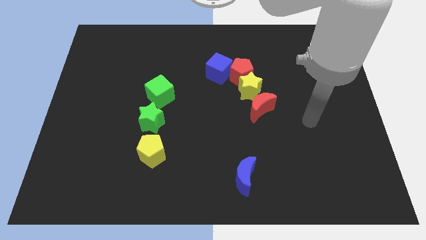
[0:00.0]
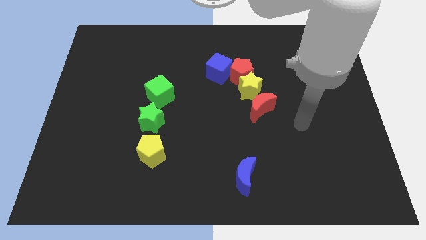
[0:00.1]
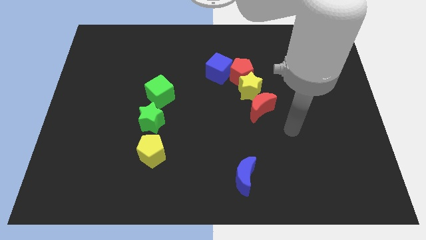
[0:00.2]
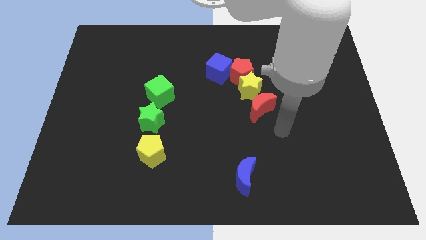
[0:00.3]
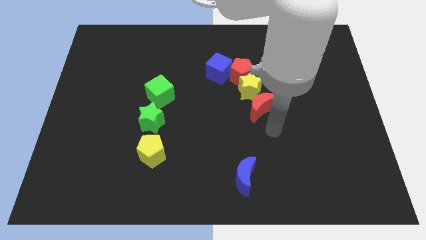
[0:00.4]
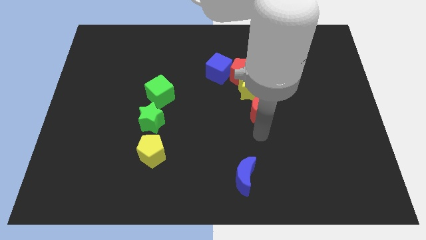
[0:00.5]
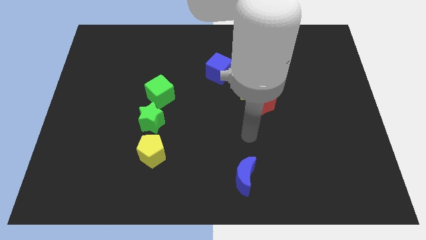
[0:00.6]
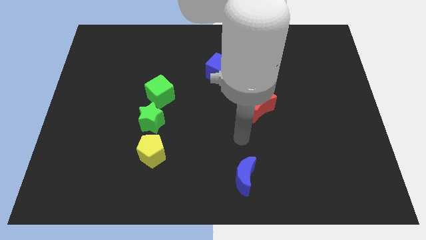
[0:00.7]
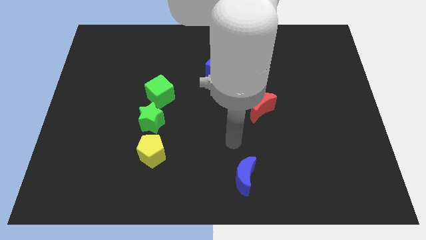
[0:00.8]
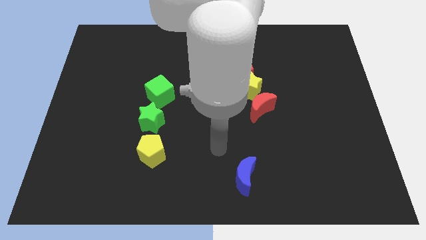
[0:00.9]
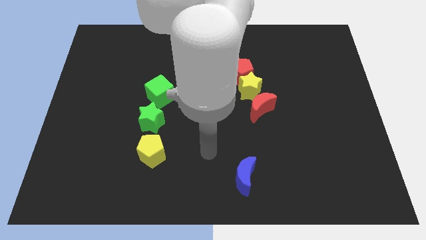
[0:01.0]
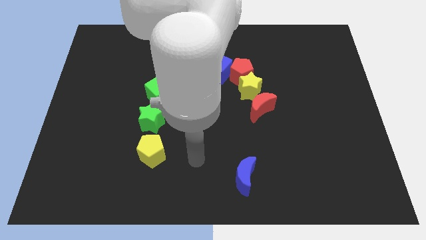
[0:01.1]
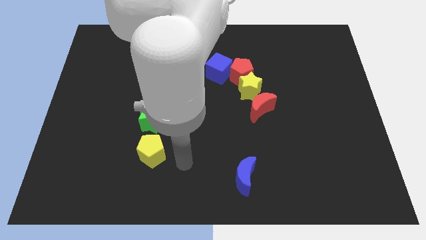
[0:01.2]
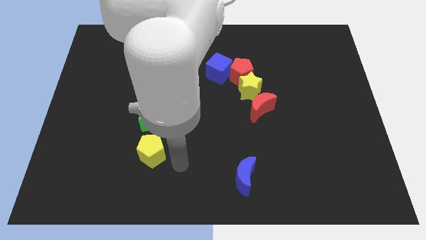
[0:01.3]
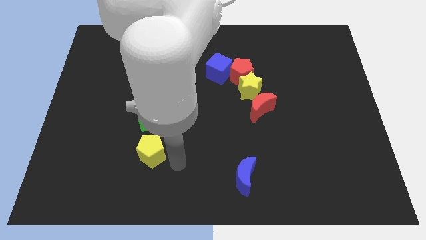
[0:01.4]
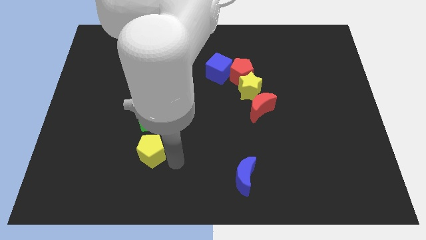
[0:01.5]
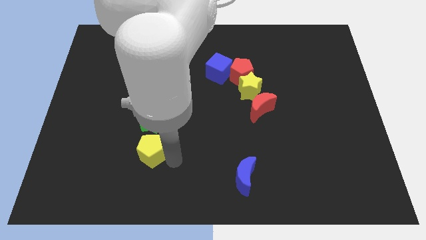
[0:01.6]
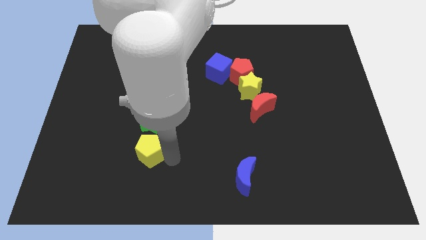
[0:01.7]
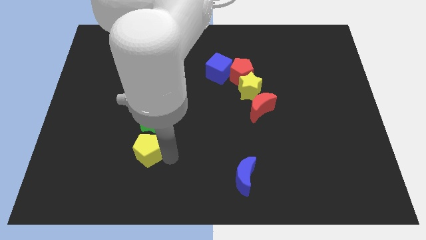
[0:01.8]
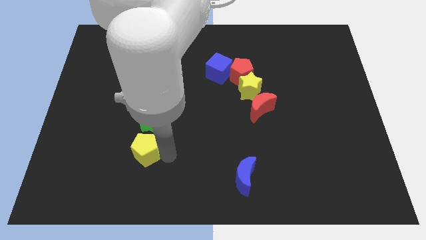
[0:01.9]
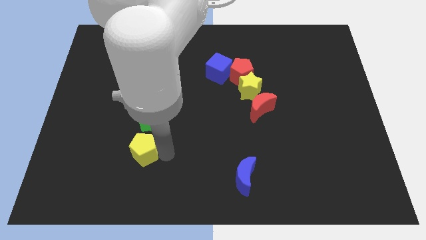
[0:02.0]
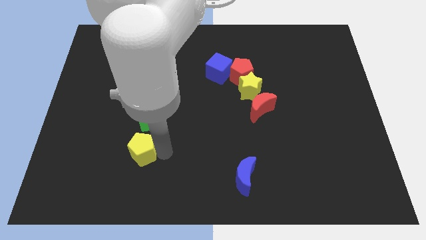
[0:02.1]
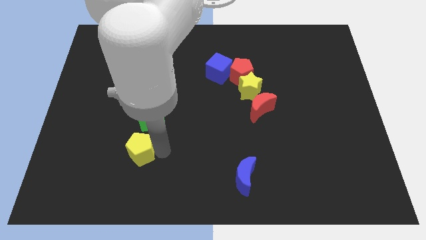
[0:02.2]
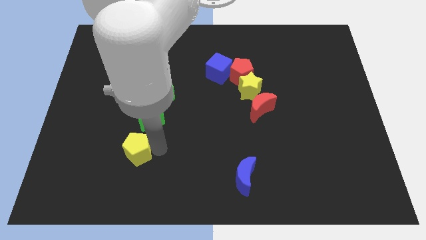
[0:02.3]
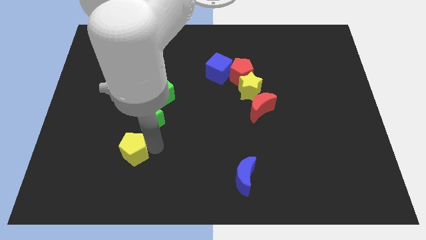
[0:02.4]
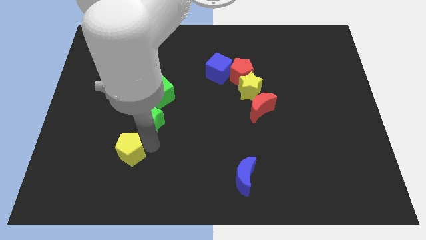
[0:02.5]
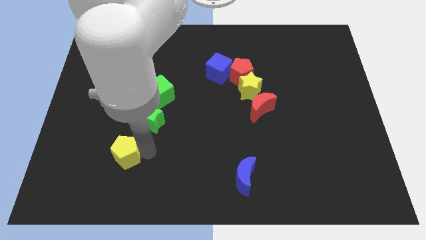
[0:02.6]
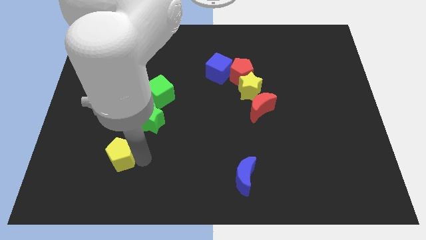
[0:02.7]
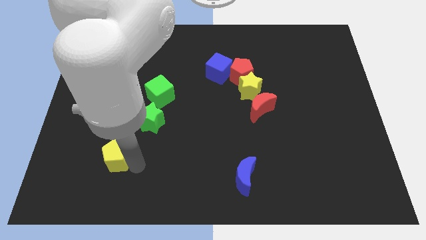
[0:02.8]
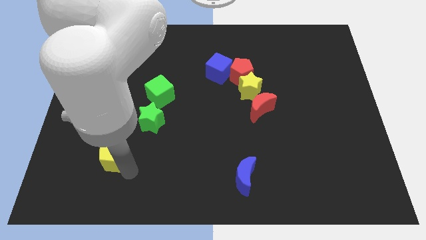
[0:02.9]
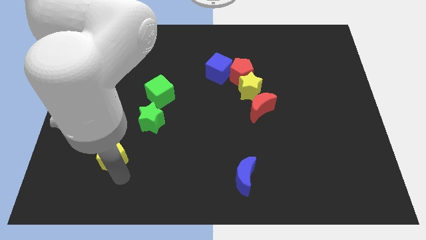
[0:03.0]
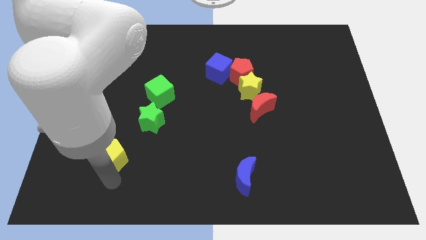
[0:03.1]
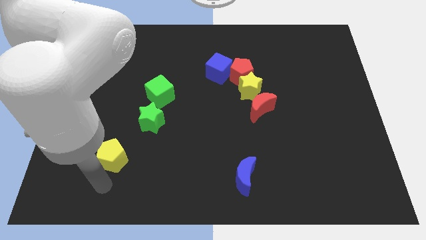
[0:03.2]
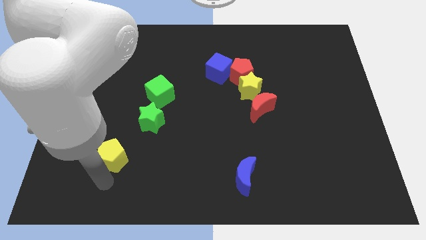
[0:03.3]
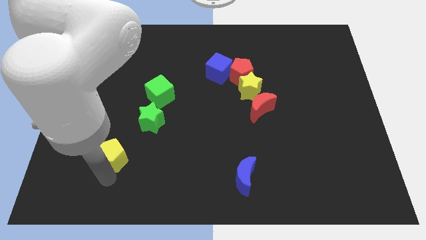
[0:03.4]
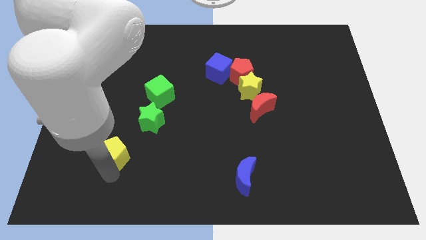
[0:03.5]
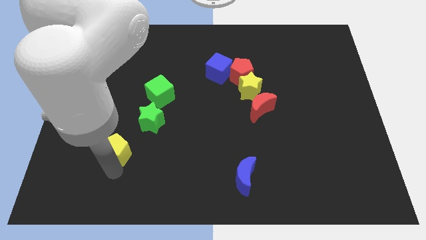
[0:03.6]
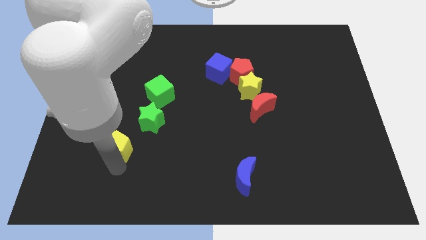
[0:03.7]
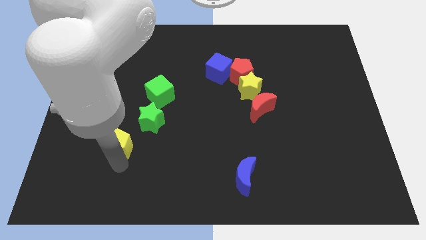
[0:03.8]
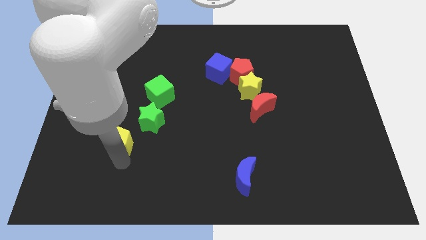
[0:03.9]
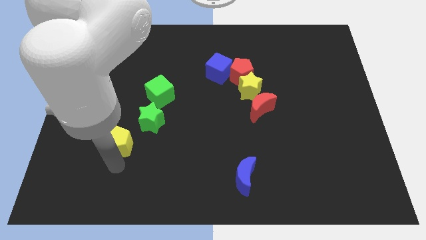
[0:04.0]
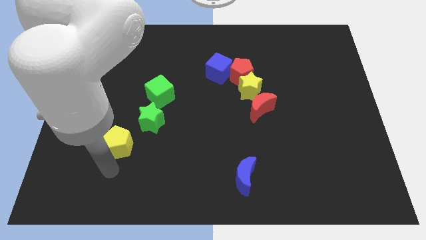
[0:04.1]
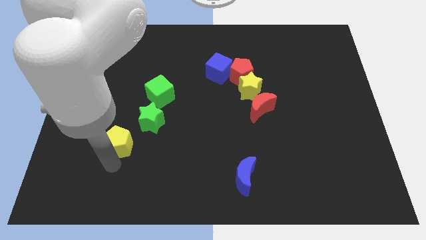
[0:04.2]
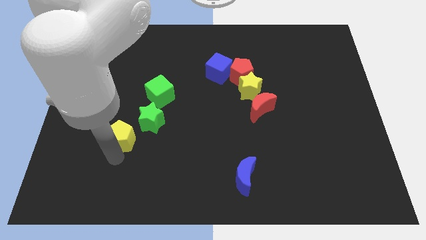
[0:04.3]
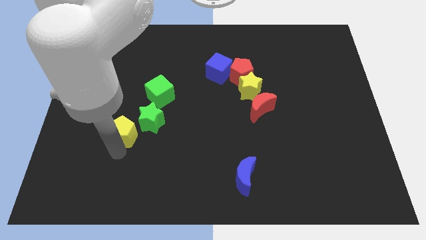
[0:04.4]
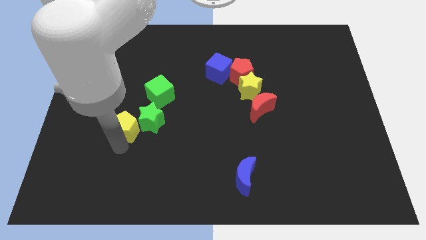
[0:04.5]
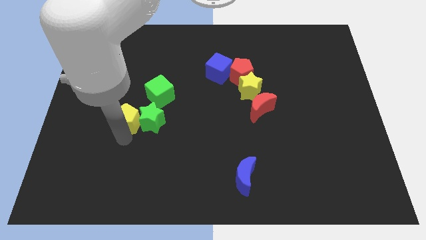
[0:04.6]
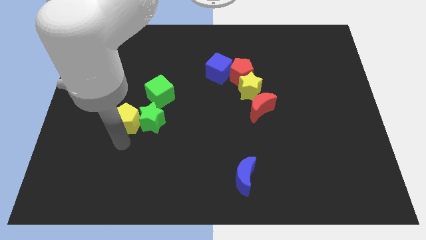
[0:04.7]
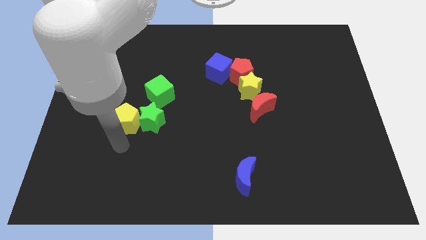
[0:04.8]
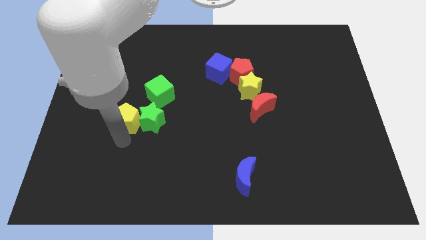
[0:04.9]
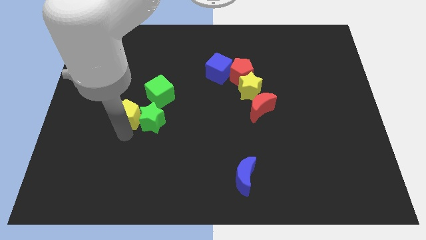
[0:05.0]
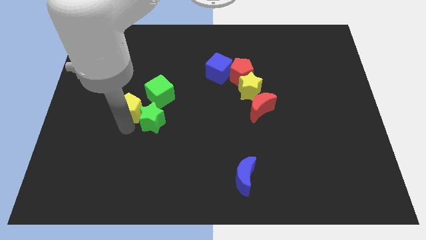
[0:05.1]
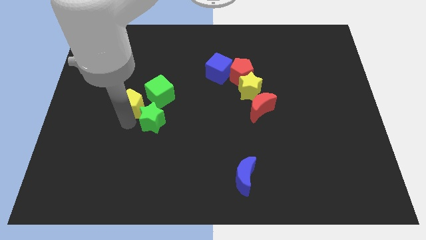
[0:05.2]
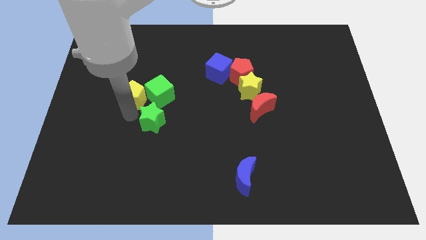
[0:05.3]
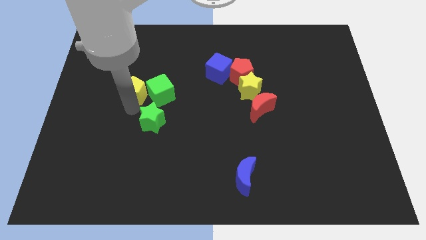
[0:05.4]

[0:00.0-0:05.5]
move the yellow pentagon diagonally up and to the left of the green cube

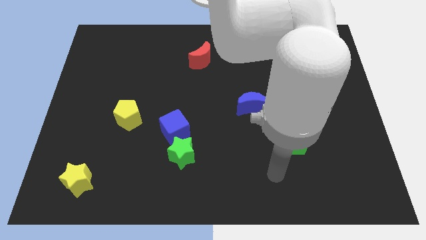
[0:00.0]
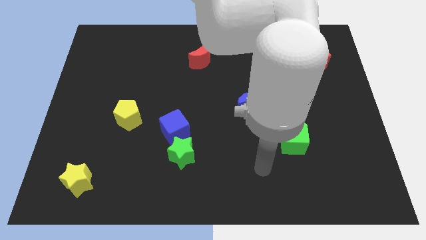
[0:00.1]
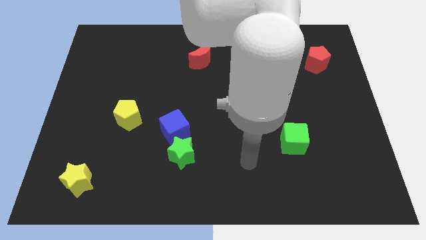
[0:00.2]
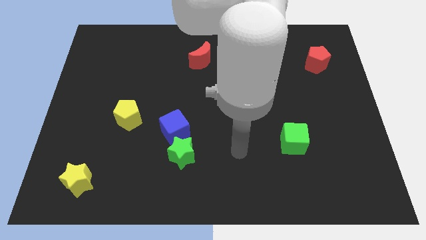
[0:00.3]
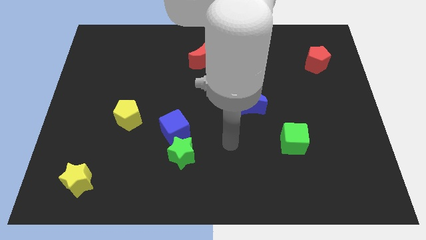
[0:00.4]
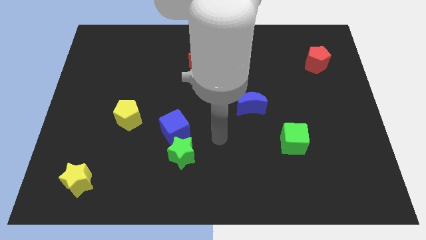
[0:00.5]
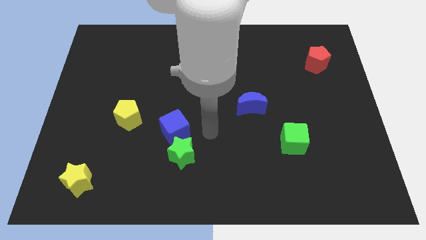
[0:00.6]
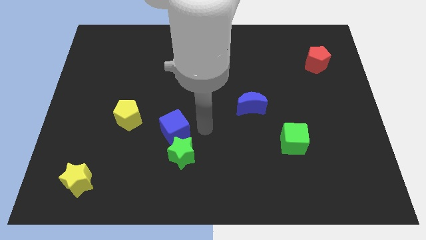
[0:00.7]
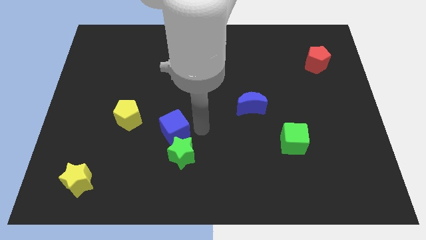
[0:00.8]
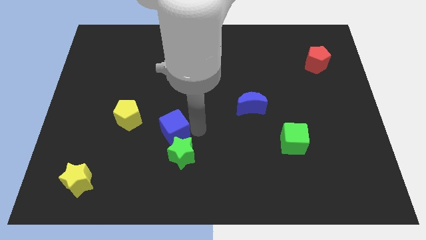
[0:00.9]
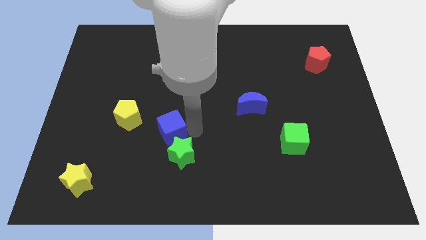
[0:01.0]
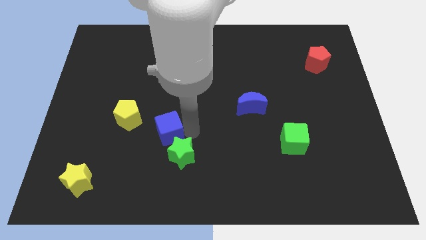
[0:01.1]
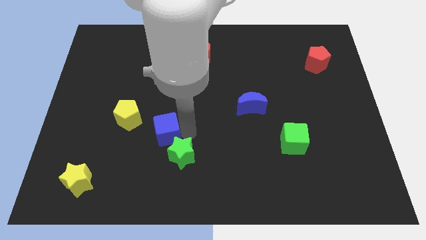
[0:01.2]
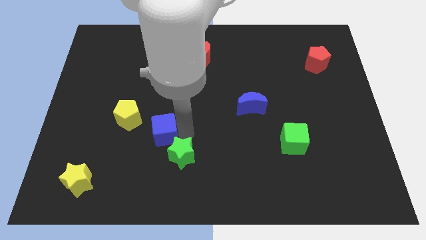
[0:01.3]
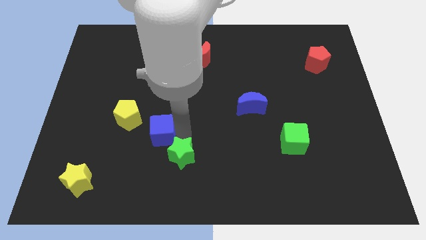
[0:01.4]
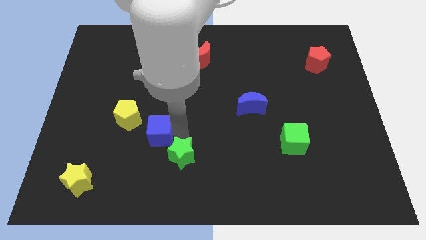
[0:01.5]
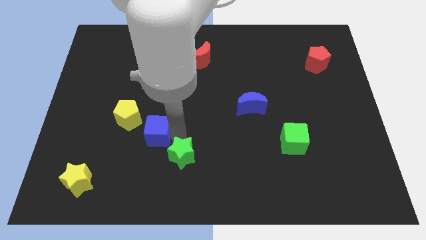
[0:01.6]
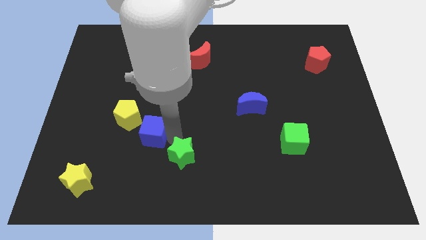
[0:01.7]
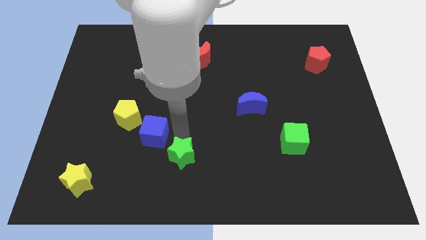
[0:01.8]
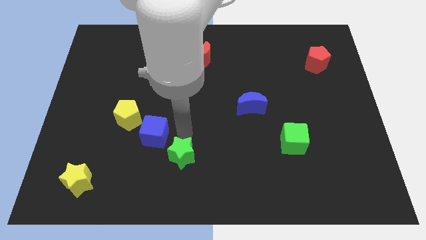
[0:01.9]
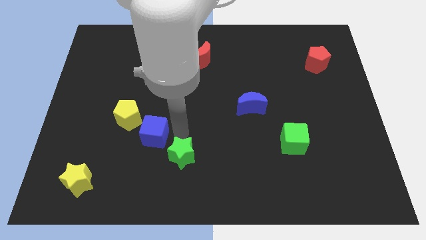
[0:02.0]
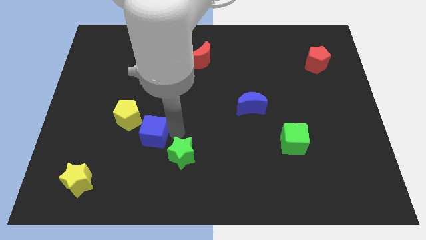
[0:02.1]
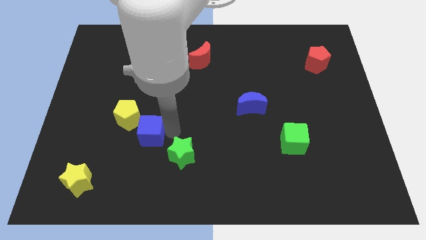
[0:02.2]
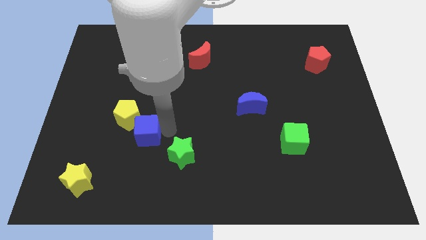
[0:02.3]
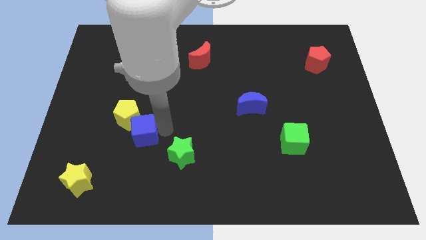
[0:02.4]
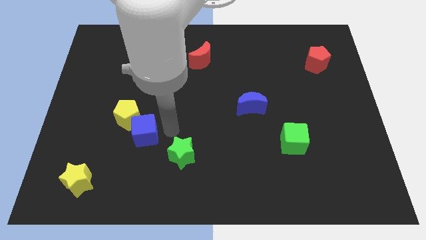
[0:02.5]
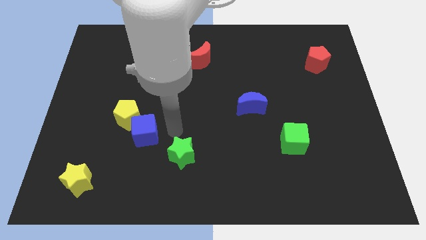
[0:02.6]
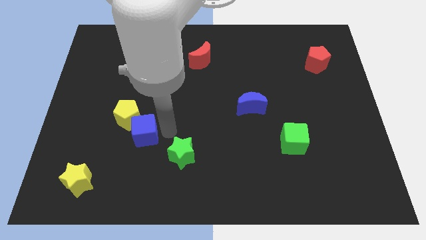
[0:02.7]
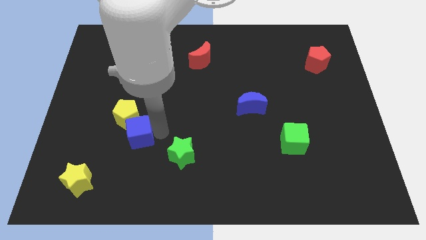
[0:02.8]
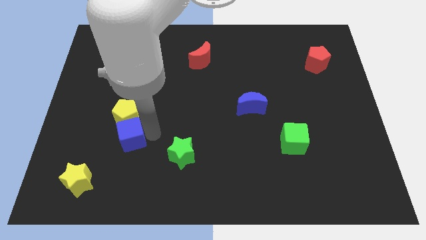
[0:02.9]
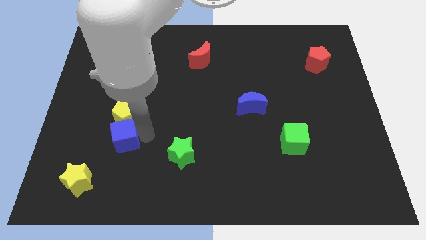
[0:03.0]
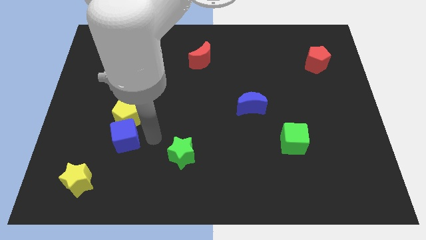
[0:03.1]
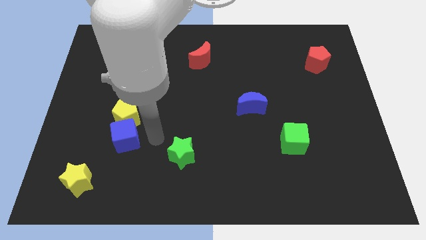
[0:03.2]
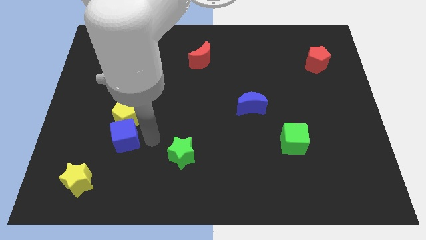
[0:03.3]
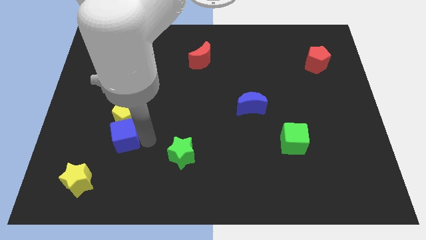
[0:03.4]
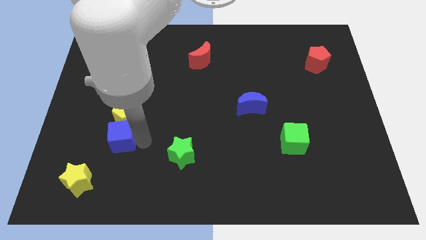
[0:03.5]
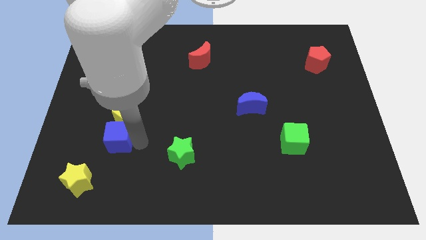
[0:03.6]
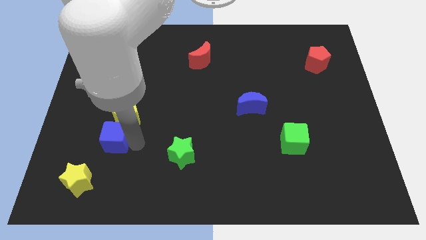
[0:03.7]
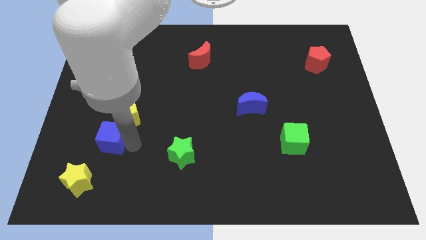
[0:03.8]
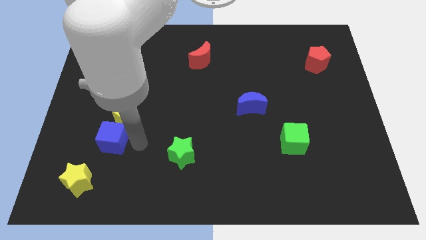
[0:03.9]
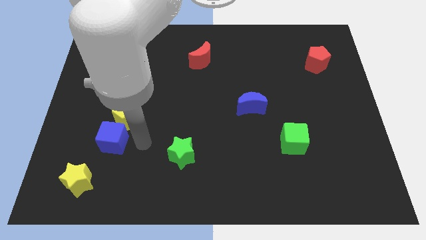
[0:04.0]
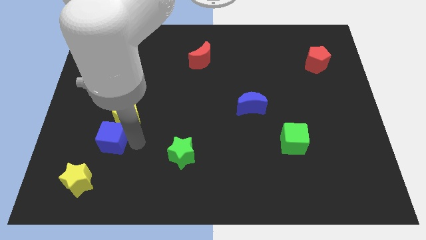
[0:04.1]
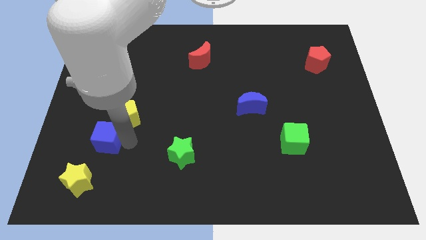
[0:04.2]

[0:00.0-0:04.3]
push the blue cube above the yellow star
